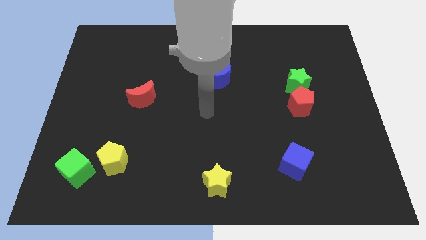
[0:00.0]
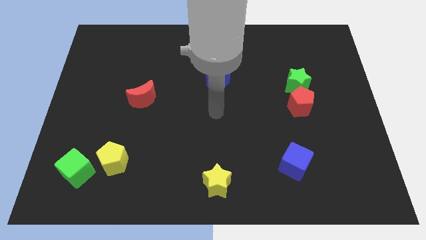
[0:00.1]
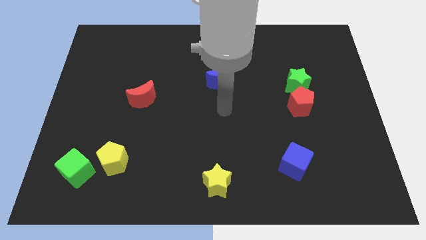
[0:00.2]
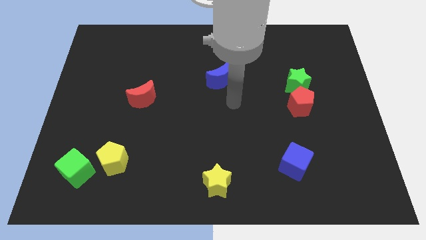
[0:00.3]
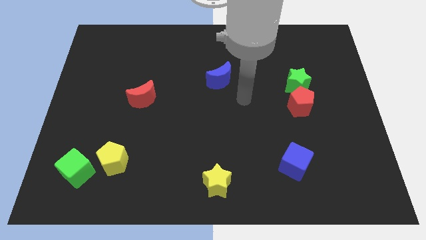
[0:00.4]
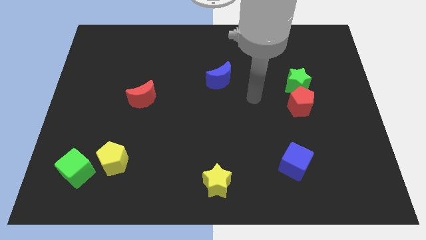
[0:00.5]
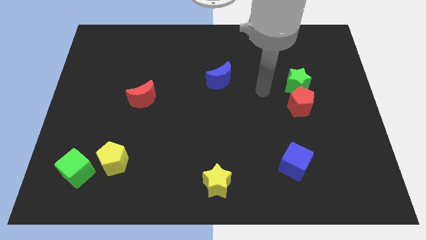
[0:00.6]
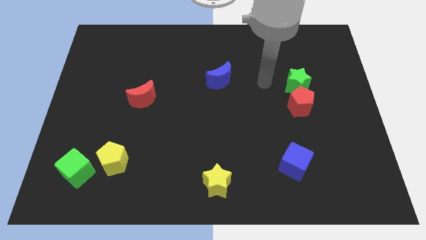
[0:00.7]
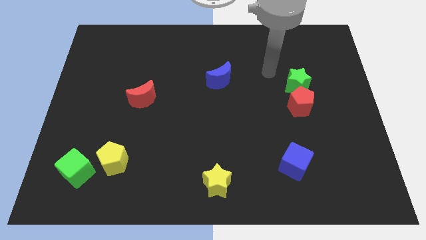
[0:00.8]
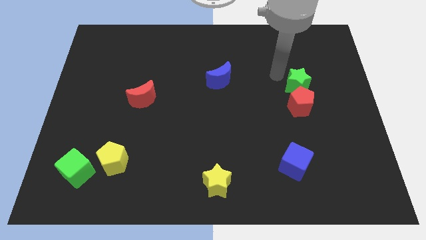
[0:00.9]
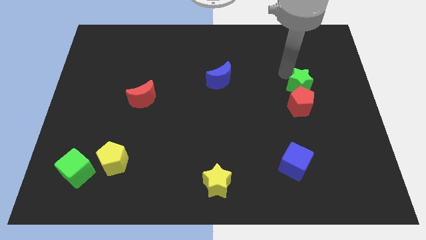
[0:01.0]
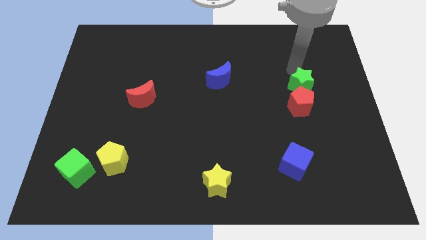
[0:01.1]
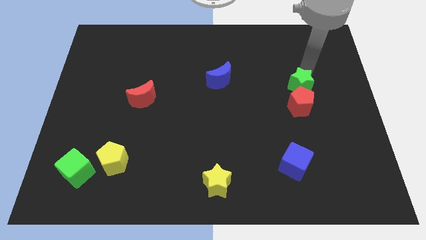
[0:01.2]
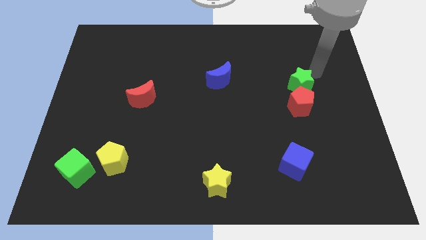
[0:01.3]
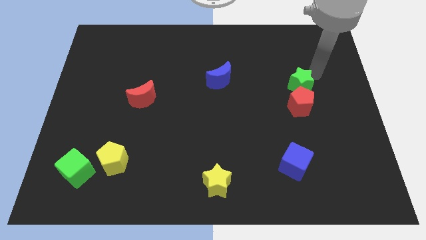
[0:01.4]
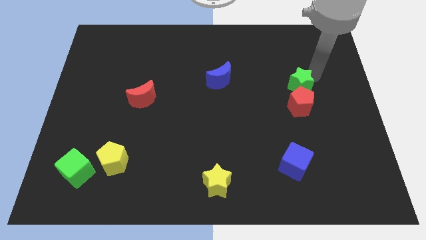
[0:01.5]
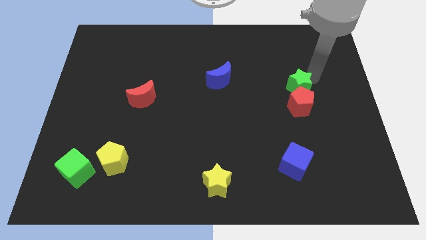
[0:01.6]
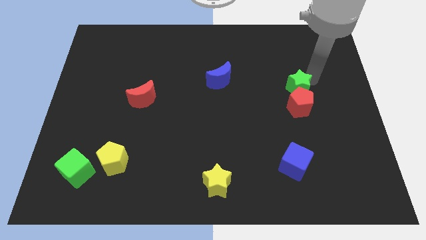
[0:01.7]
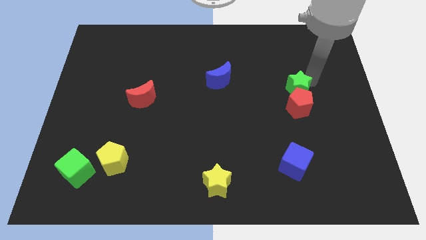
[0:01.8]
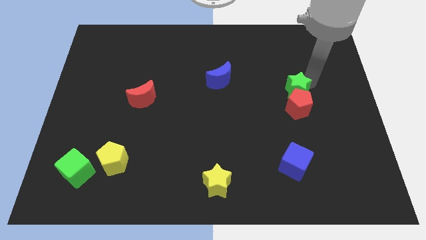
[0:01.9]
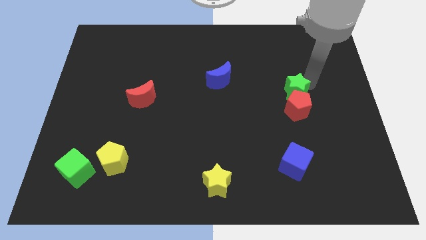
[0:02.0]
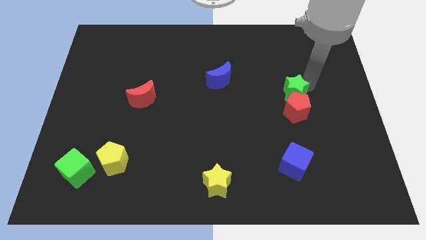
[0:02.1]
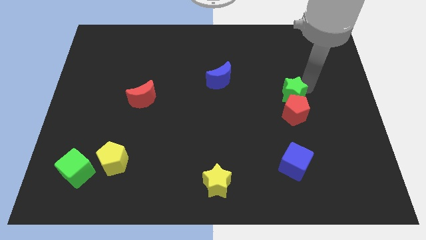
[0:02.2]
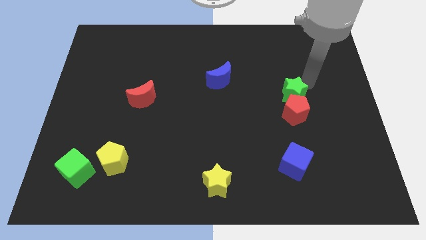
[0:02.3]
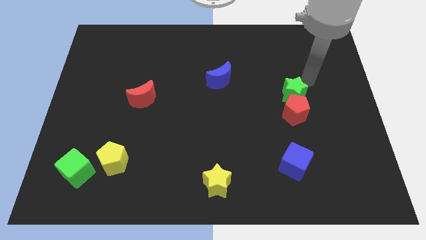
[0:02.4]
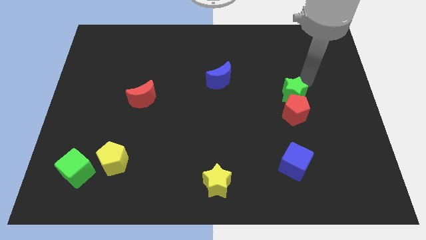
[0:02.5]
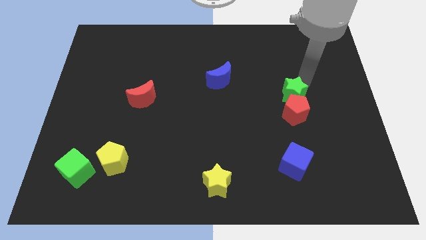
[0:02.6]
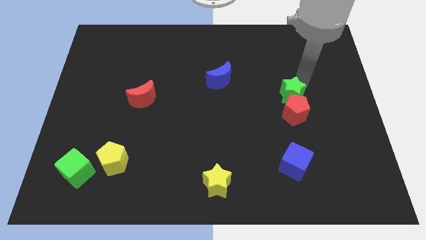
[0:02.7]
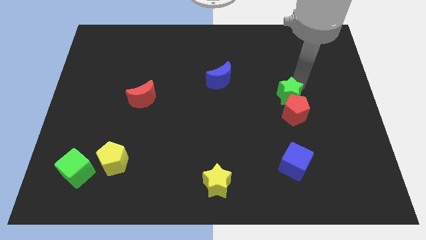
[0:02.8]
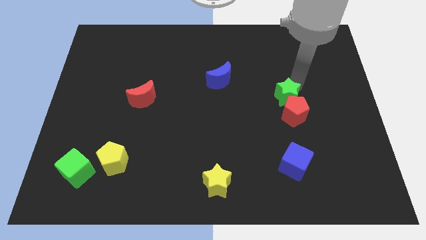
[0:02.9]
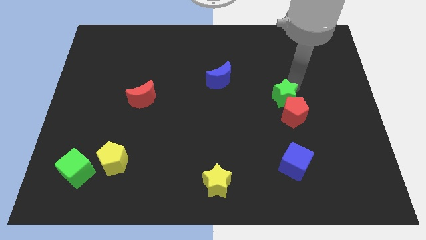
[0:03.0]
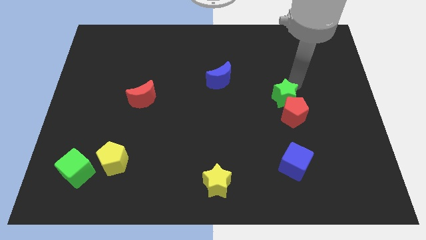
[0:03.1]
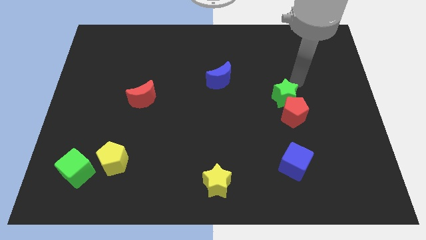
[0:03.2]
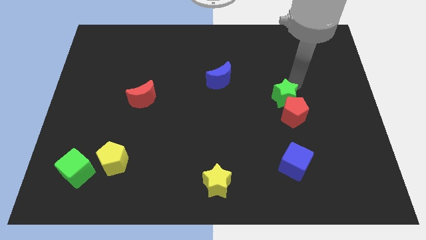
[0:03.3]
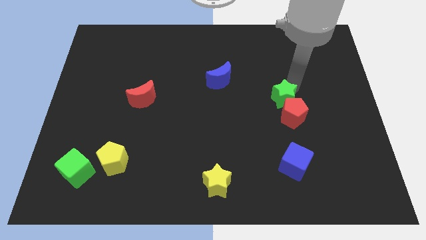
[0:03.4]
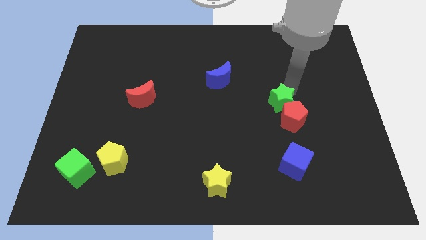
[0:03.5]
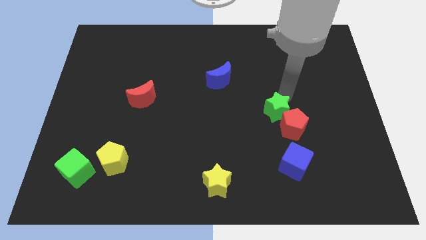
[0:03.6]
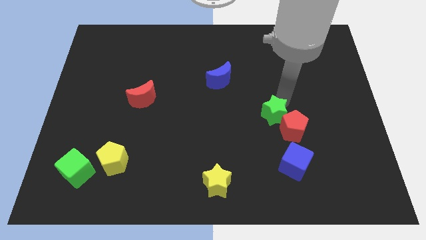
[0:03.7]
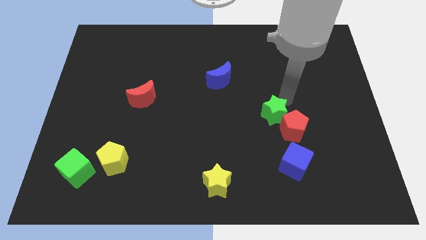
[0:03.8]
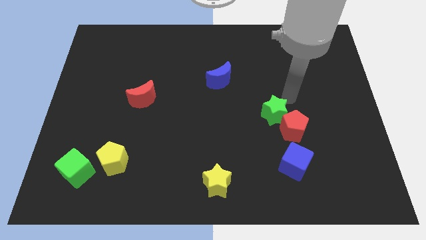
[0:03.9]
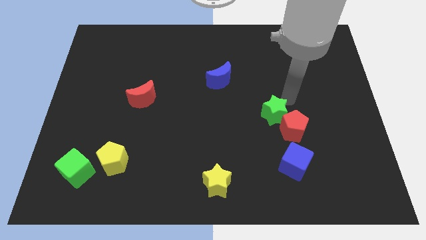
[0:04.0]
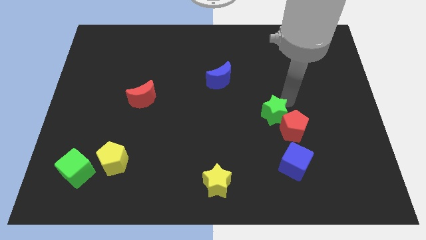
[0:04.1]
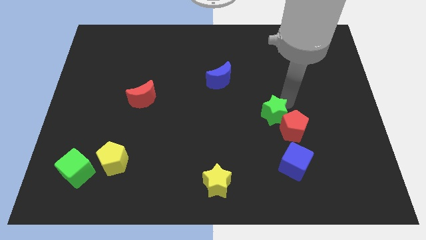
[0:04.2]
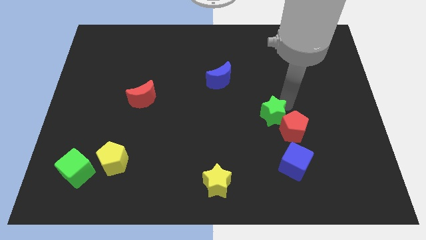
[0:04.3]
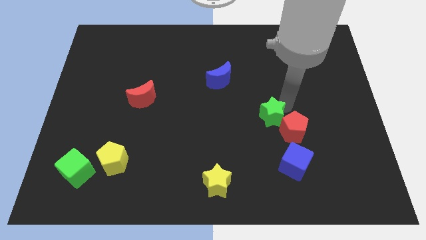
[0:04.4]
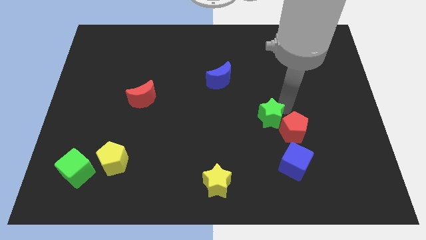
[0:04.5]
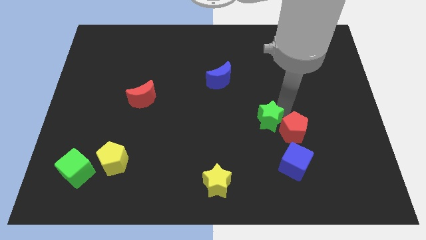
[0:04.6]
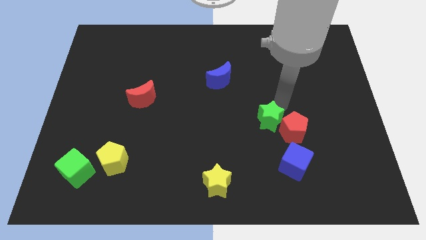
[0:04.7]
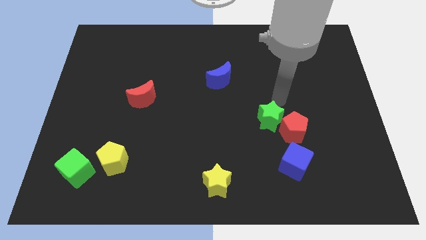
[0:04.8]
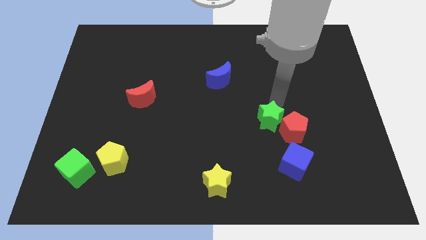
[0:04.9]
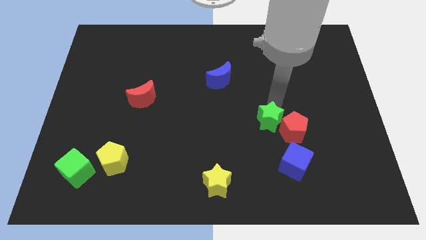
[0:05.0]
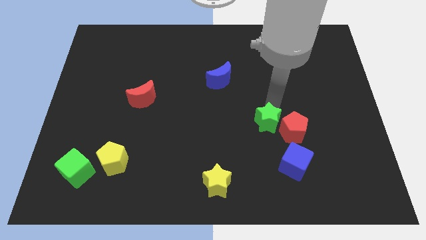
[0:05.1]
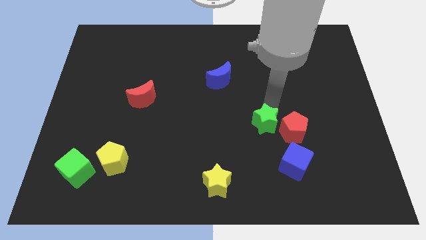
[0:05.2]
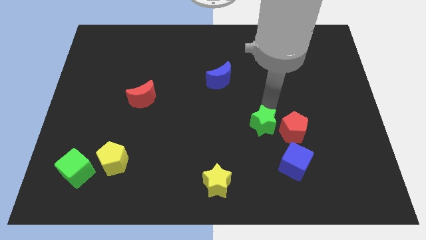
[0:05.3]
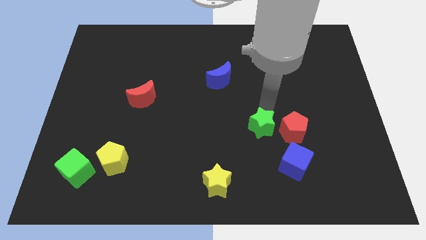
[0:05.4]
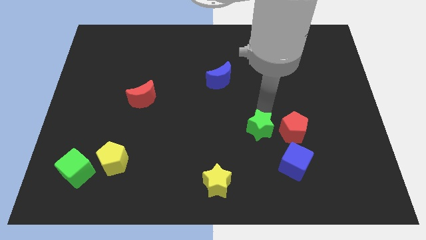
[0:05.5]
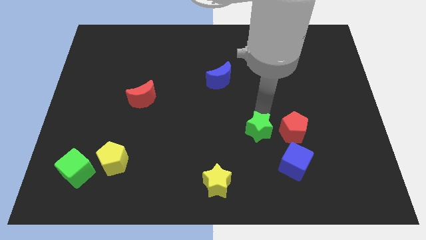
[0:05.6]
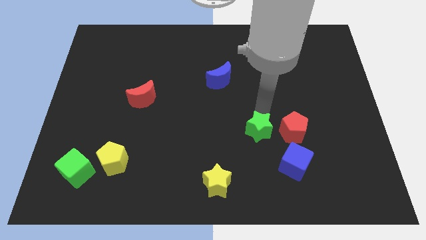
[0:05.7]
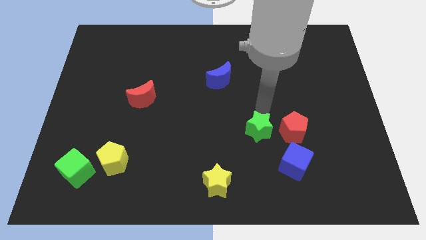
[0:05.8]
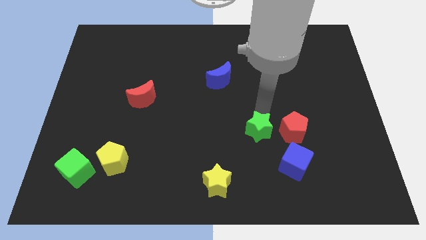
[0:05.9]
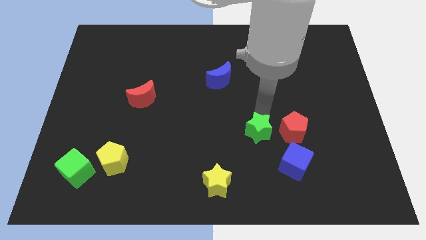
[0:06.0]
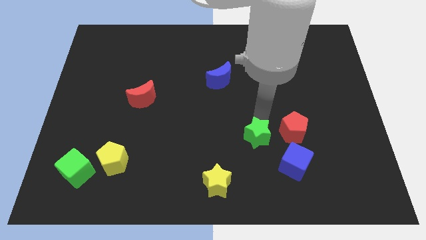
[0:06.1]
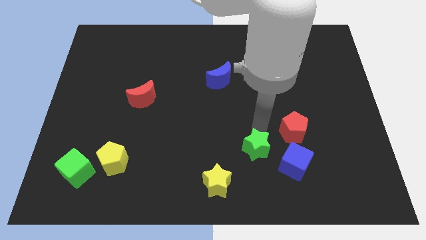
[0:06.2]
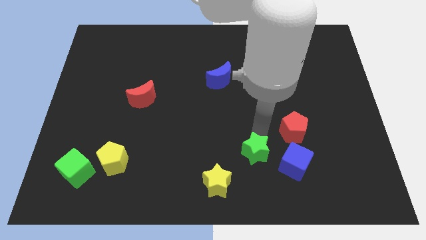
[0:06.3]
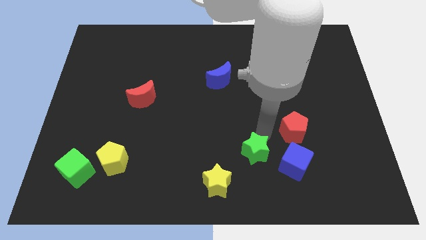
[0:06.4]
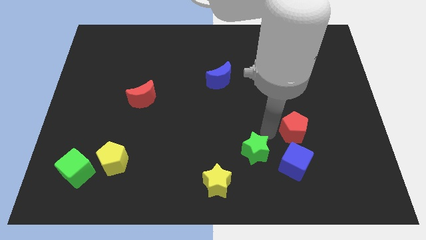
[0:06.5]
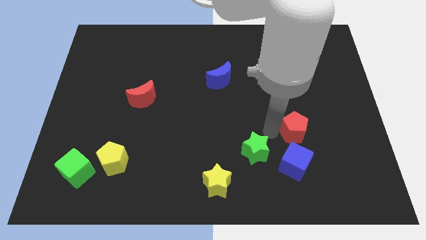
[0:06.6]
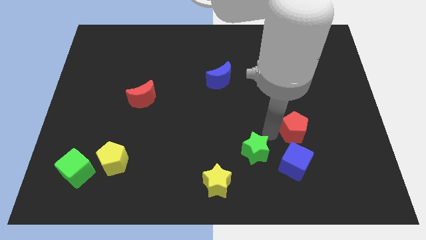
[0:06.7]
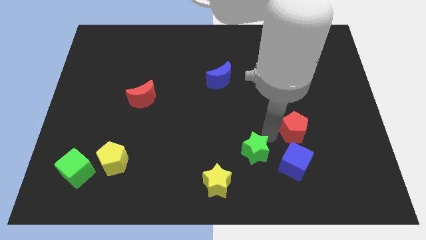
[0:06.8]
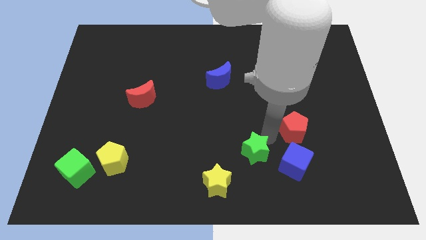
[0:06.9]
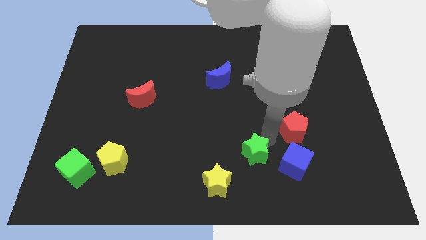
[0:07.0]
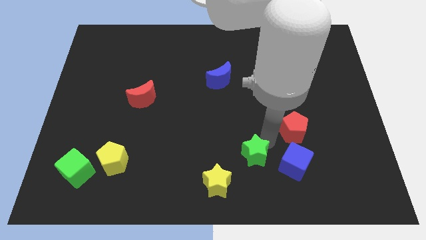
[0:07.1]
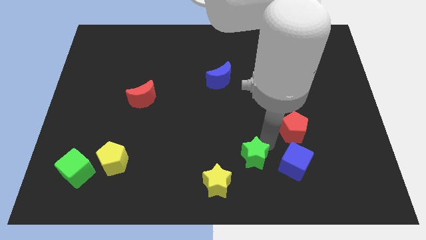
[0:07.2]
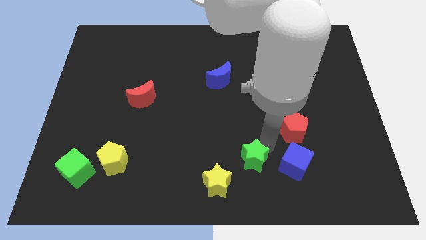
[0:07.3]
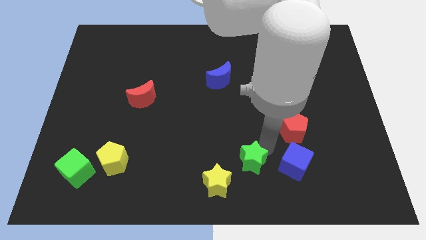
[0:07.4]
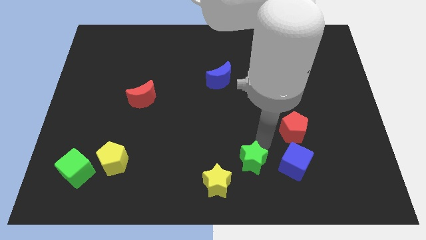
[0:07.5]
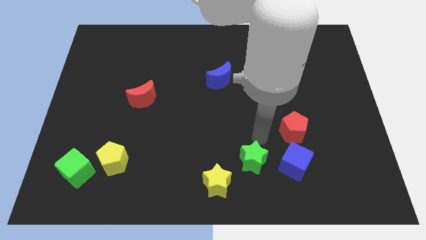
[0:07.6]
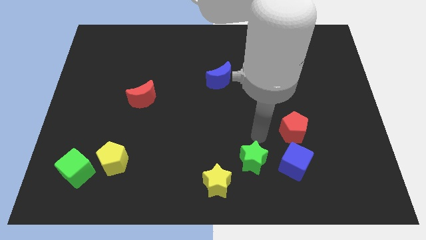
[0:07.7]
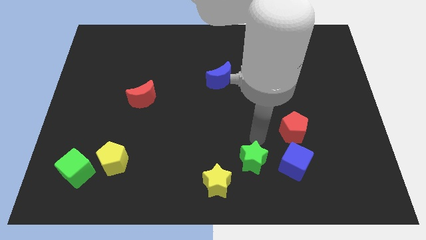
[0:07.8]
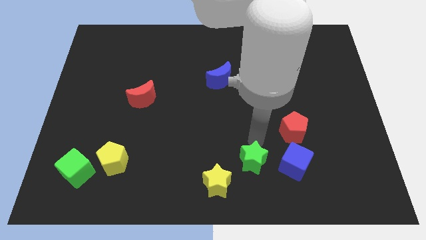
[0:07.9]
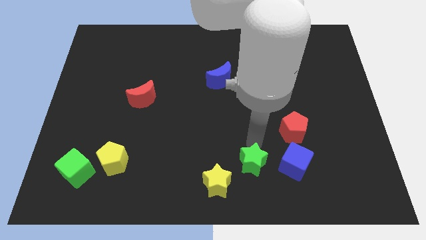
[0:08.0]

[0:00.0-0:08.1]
slide the green star to the bottom side
